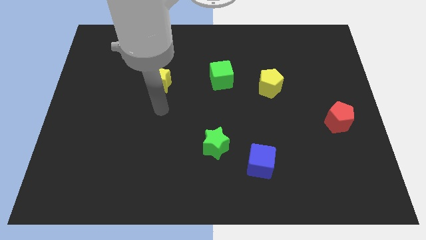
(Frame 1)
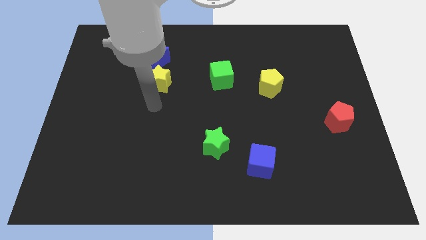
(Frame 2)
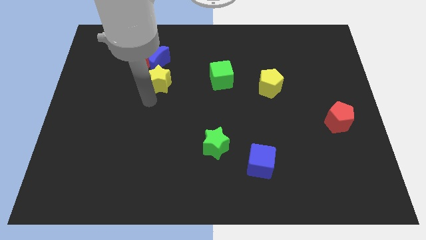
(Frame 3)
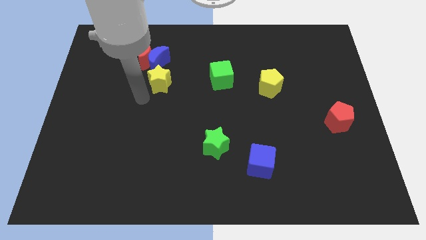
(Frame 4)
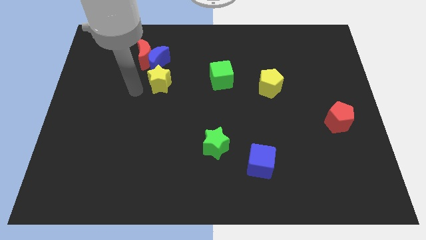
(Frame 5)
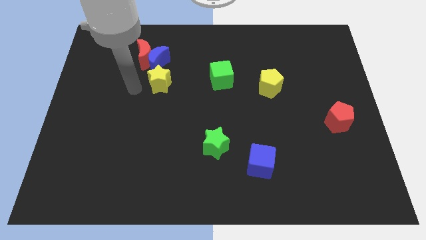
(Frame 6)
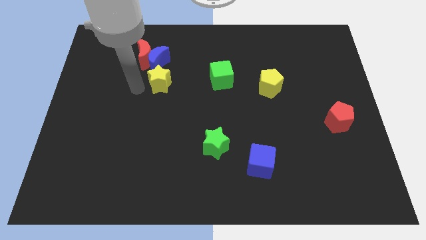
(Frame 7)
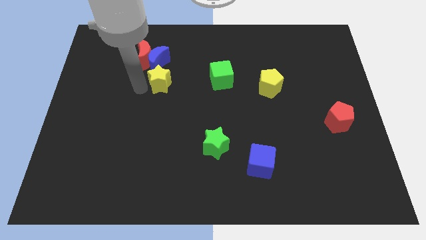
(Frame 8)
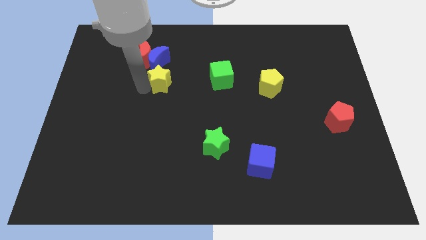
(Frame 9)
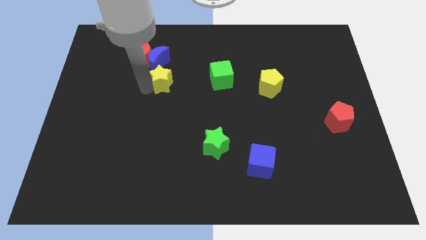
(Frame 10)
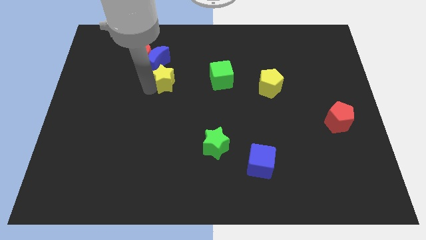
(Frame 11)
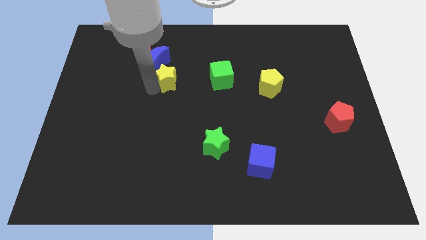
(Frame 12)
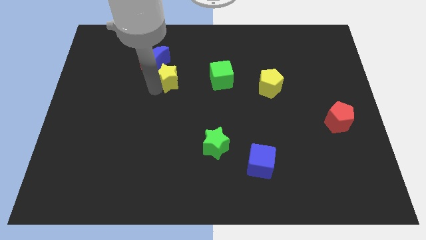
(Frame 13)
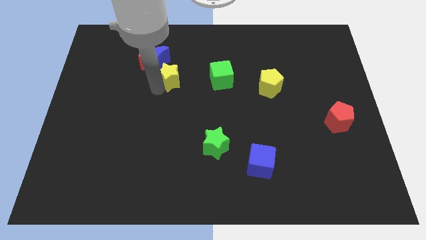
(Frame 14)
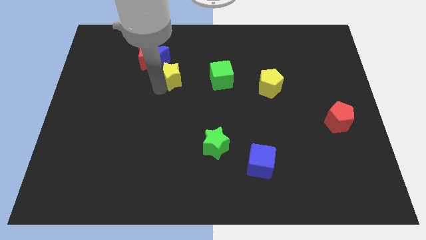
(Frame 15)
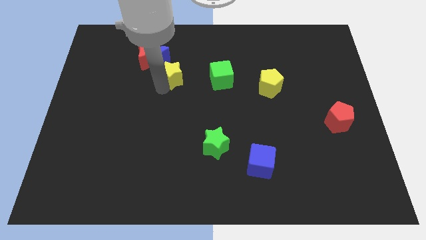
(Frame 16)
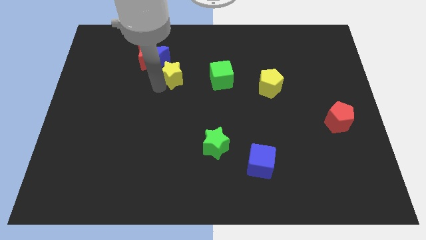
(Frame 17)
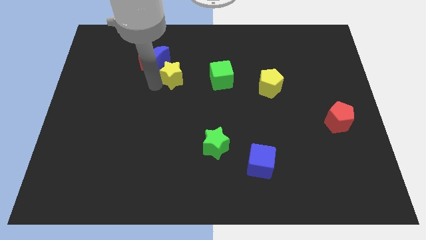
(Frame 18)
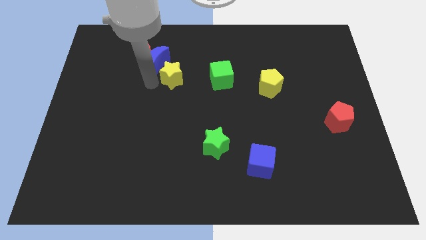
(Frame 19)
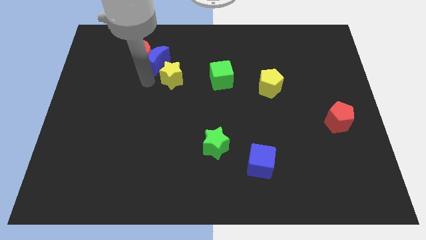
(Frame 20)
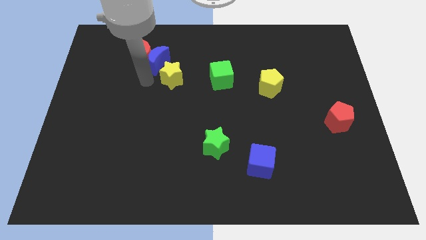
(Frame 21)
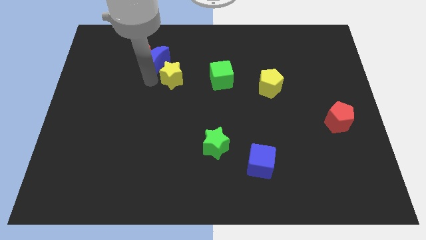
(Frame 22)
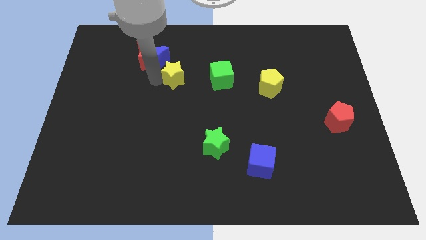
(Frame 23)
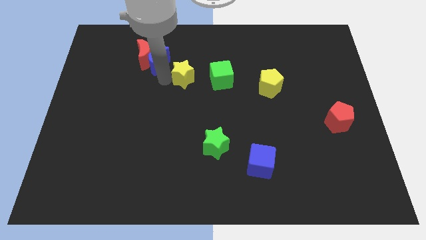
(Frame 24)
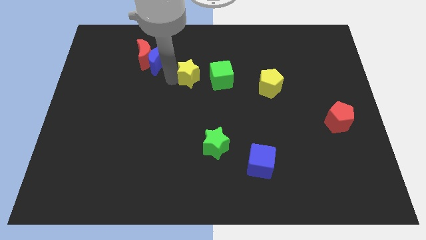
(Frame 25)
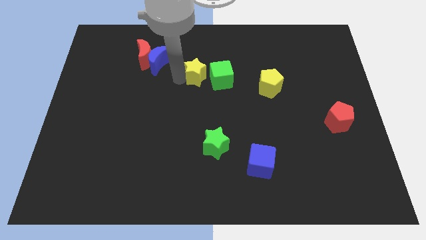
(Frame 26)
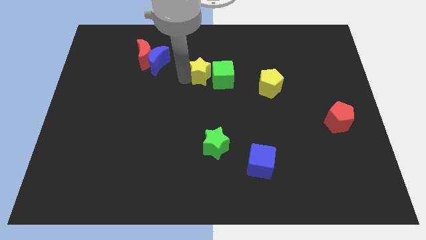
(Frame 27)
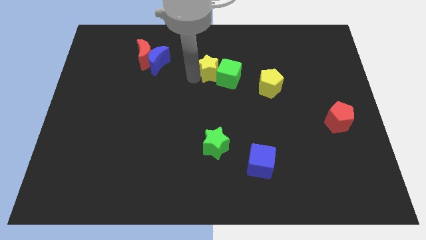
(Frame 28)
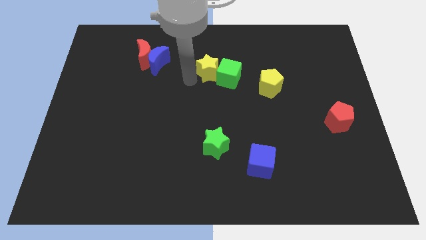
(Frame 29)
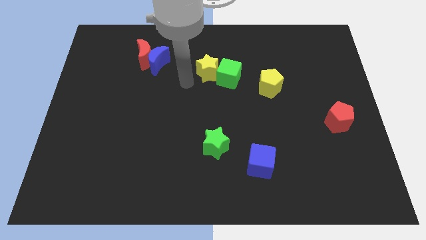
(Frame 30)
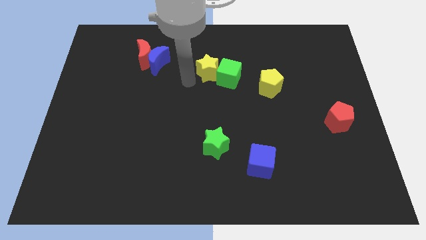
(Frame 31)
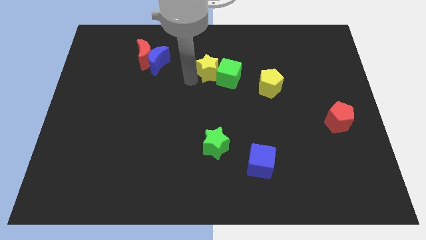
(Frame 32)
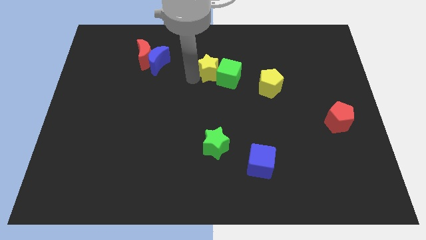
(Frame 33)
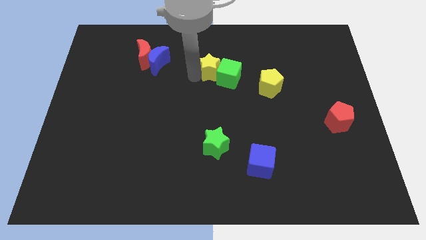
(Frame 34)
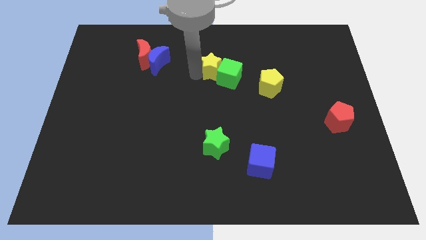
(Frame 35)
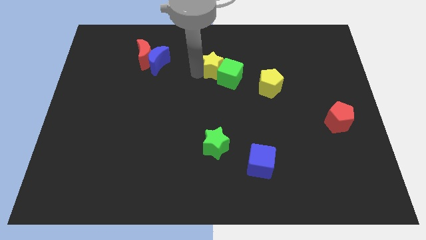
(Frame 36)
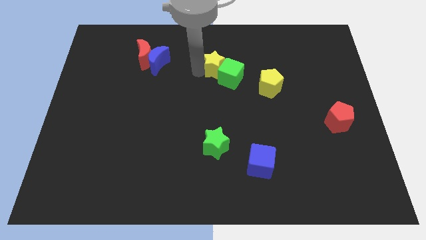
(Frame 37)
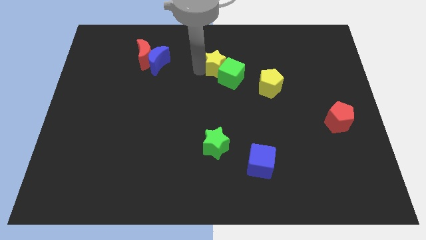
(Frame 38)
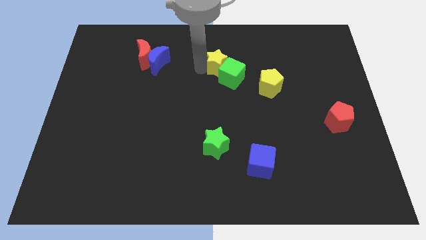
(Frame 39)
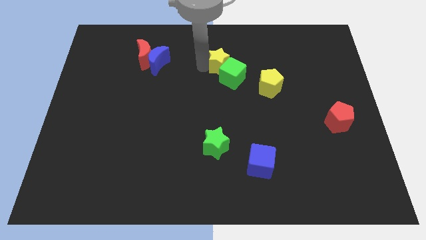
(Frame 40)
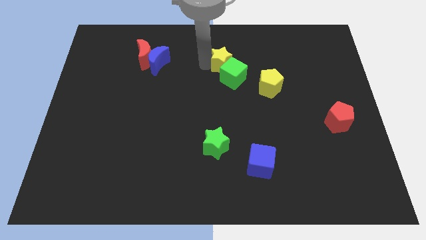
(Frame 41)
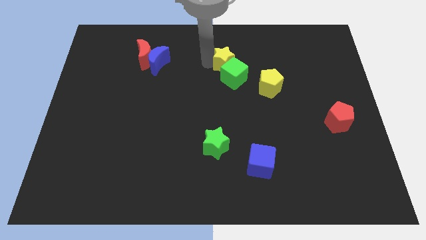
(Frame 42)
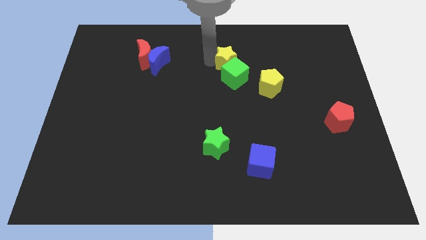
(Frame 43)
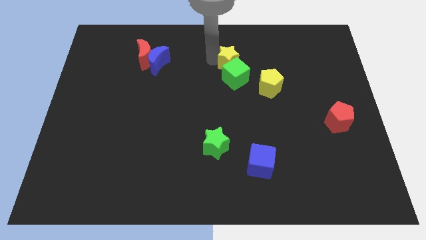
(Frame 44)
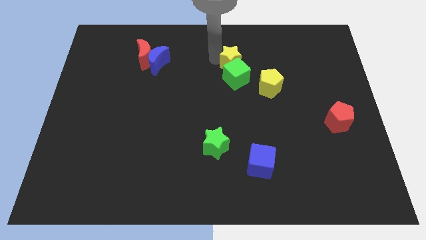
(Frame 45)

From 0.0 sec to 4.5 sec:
move the yellow star to the top right of the green cube

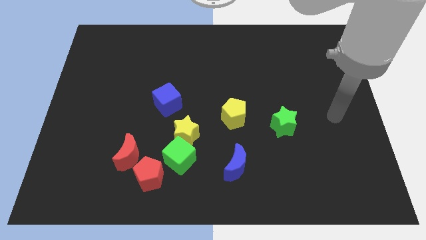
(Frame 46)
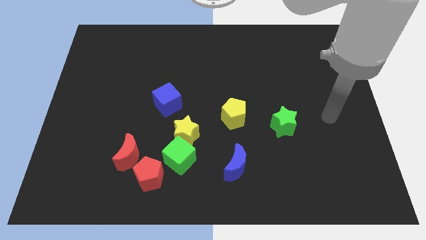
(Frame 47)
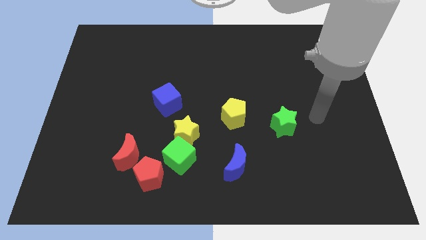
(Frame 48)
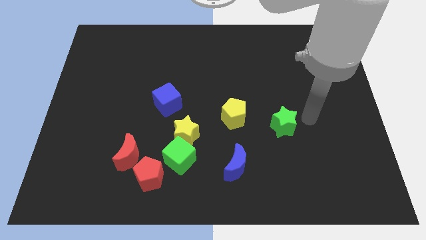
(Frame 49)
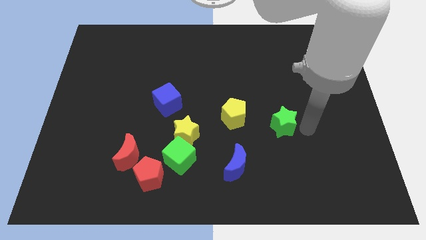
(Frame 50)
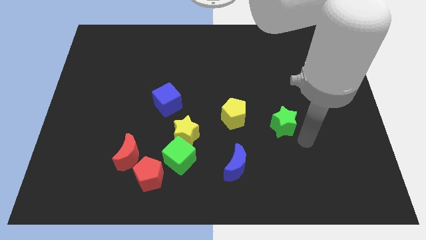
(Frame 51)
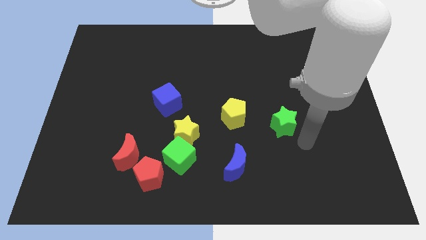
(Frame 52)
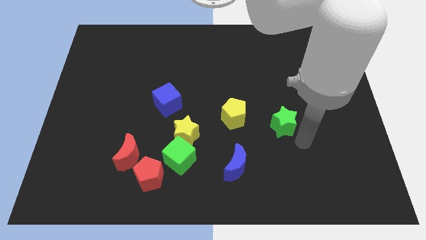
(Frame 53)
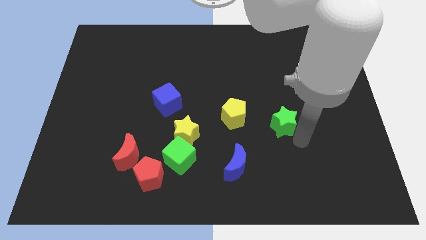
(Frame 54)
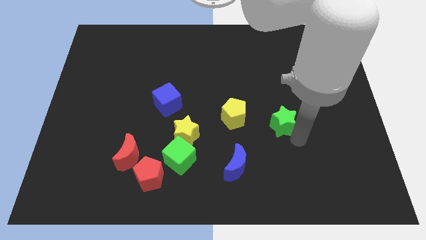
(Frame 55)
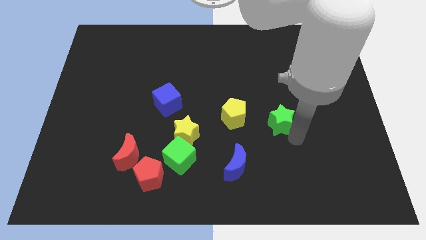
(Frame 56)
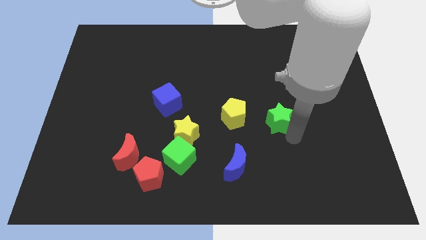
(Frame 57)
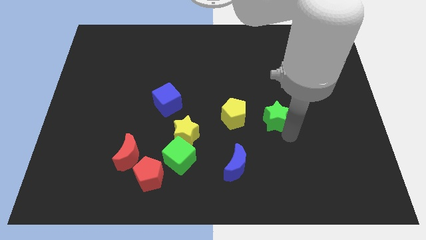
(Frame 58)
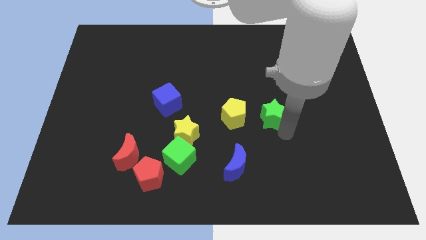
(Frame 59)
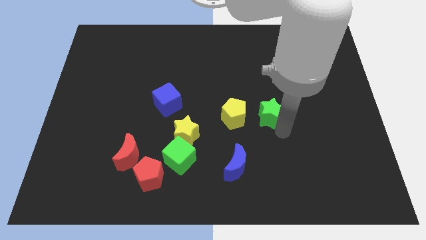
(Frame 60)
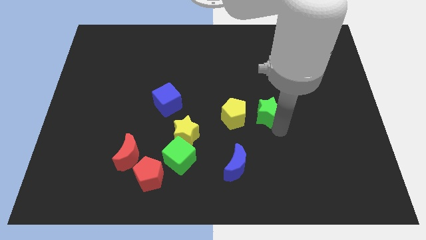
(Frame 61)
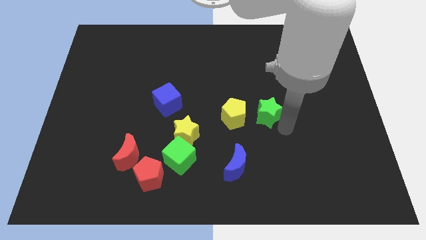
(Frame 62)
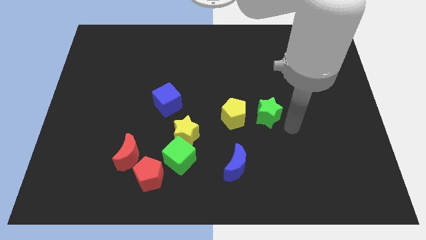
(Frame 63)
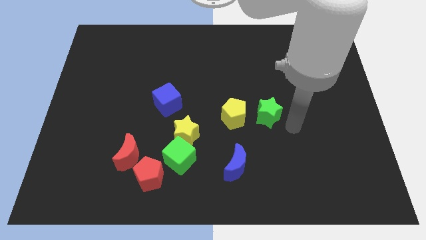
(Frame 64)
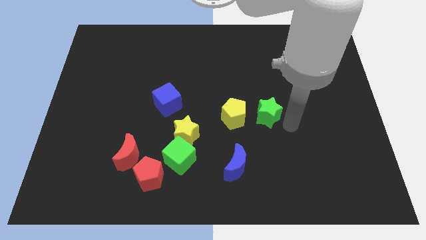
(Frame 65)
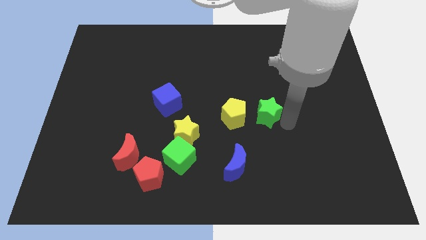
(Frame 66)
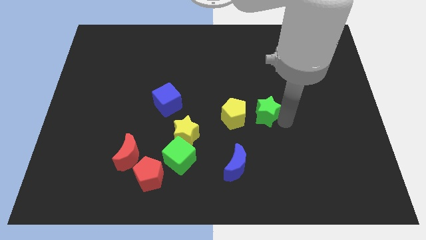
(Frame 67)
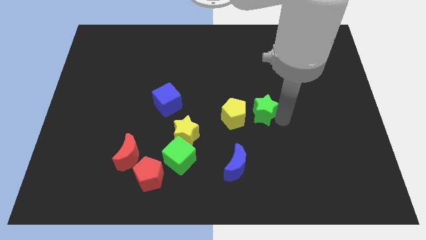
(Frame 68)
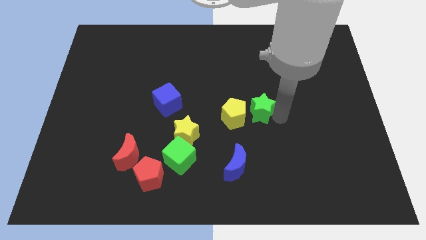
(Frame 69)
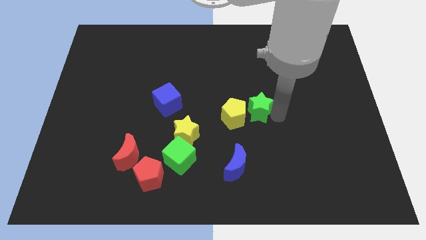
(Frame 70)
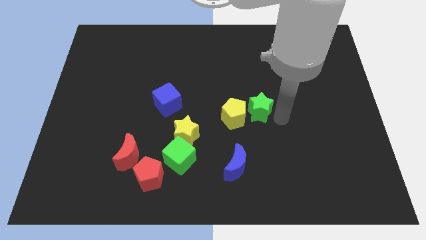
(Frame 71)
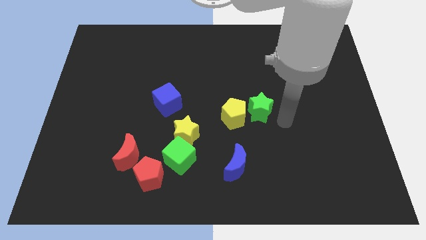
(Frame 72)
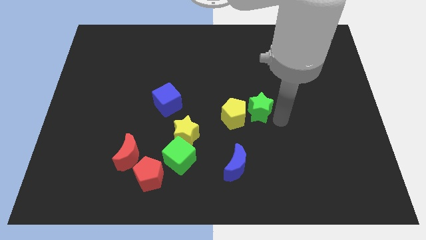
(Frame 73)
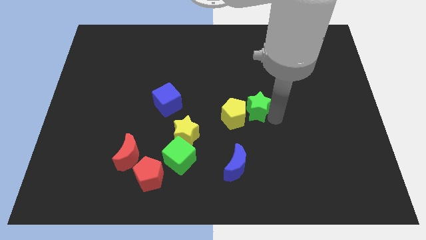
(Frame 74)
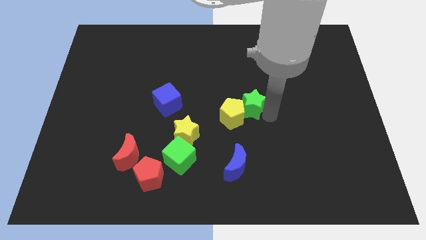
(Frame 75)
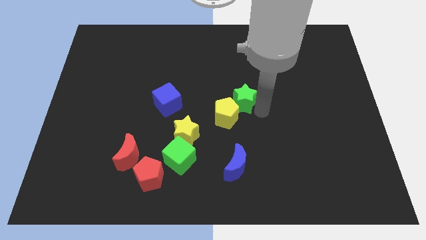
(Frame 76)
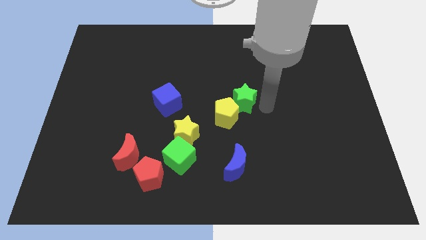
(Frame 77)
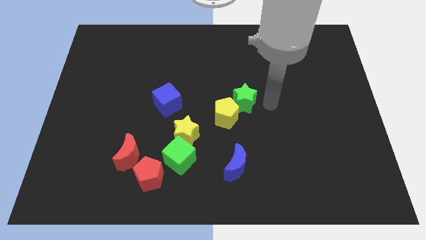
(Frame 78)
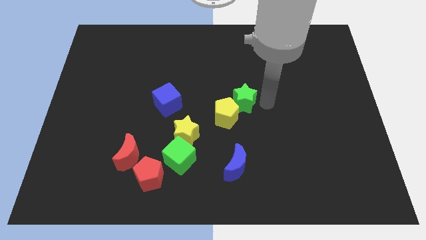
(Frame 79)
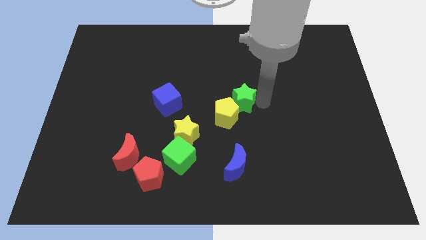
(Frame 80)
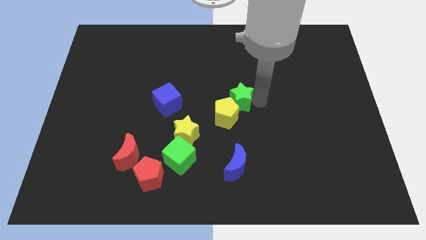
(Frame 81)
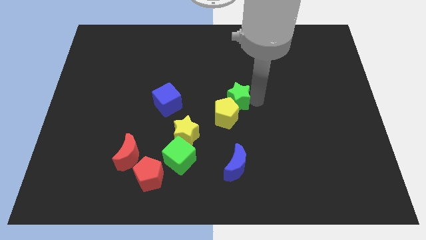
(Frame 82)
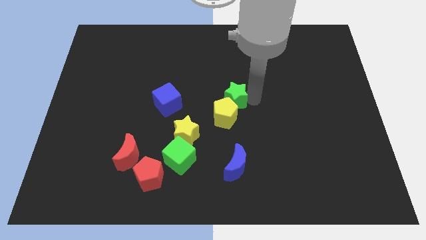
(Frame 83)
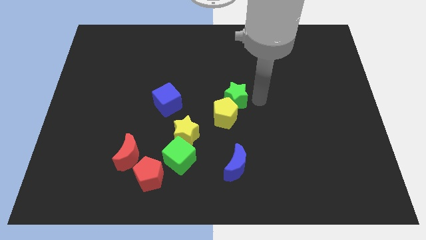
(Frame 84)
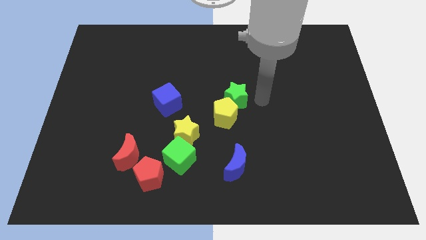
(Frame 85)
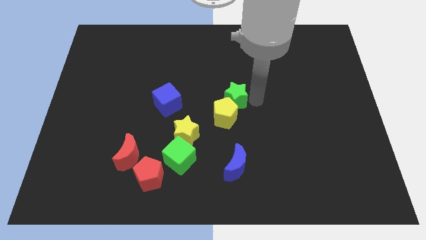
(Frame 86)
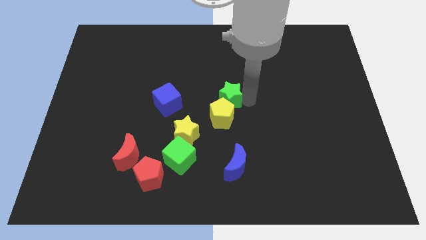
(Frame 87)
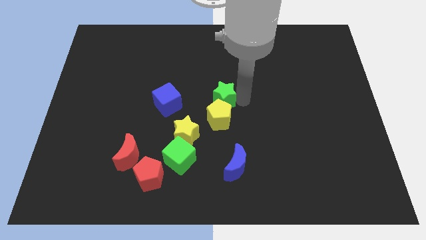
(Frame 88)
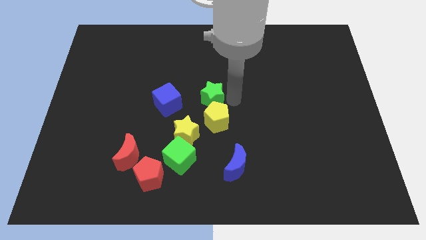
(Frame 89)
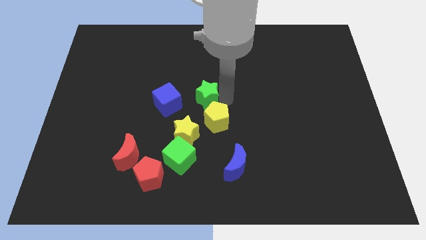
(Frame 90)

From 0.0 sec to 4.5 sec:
push the green star to the top side of the yellow star
